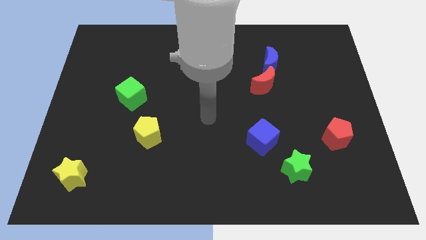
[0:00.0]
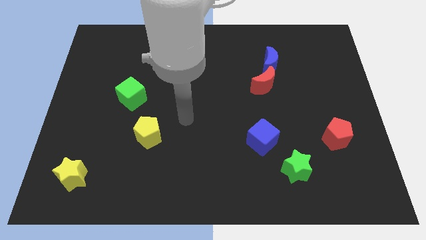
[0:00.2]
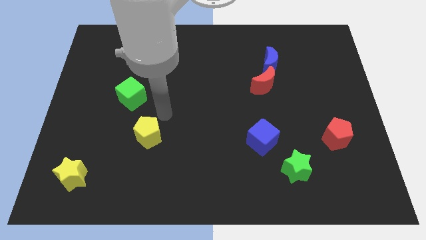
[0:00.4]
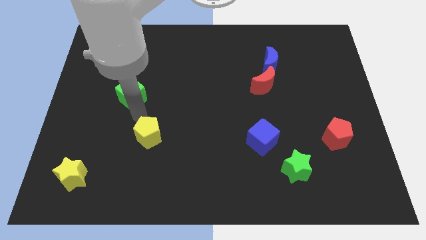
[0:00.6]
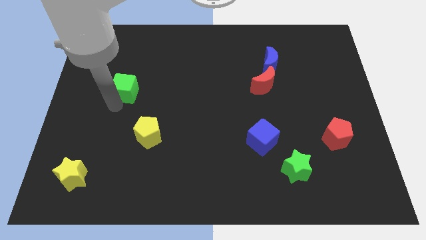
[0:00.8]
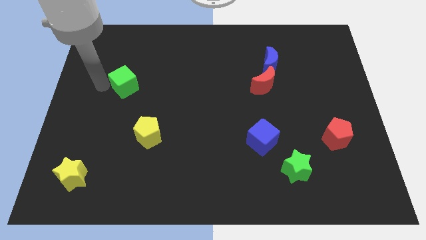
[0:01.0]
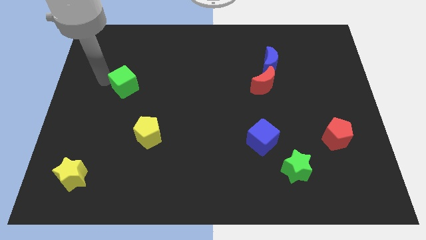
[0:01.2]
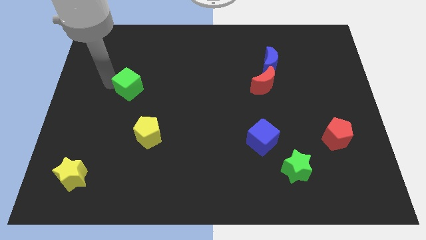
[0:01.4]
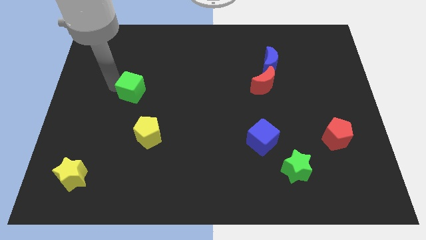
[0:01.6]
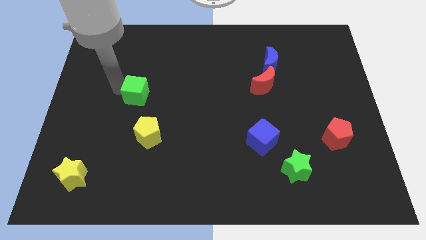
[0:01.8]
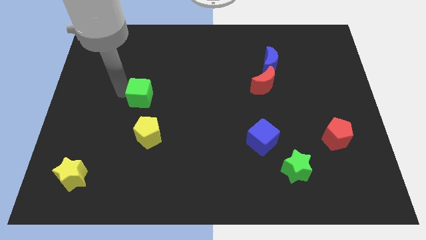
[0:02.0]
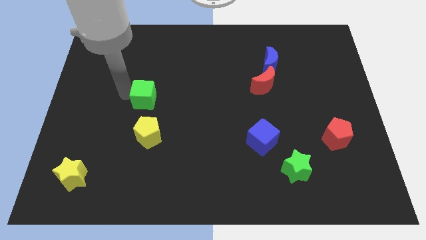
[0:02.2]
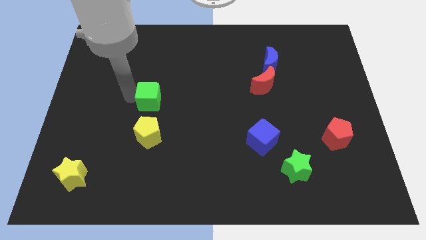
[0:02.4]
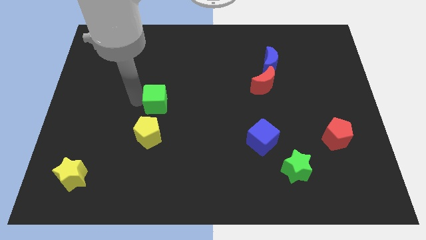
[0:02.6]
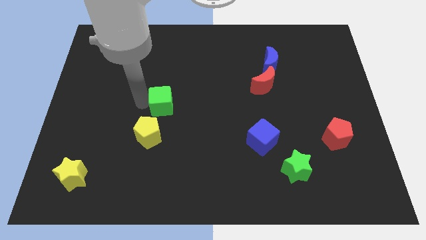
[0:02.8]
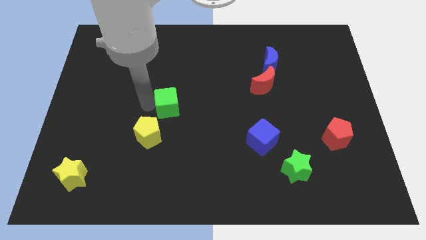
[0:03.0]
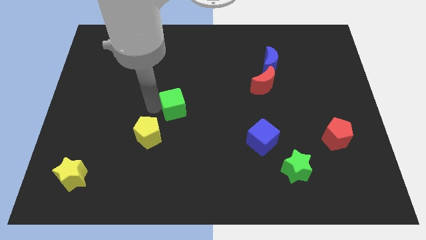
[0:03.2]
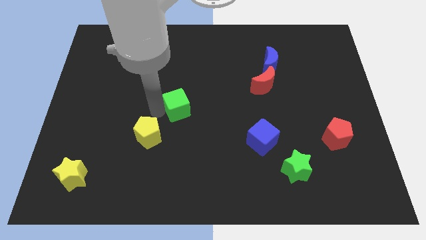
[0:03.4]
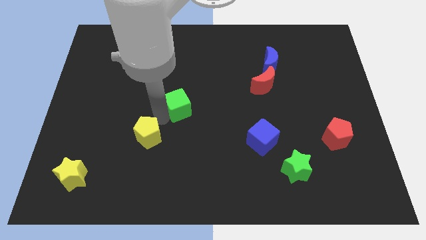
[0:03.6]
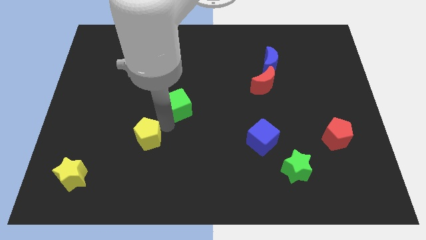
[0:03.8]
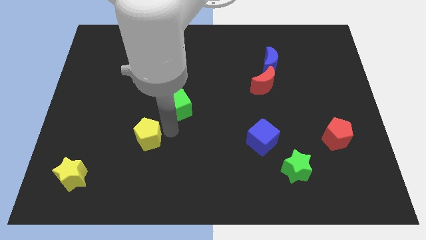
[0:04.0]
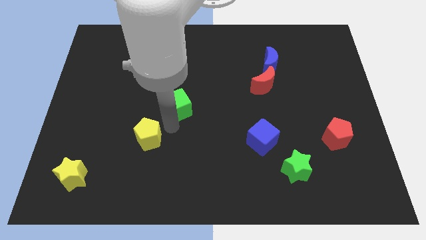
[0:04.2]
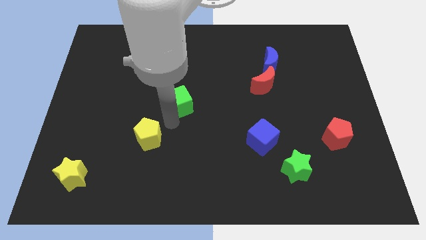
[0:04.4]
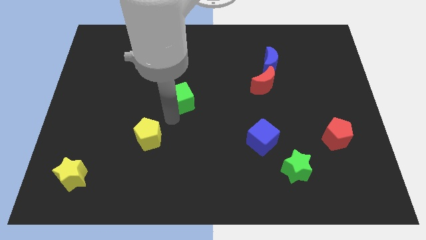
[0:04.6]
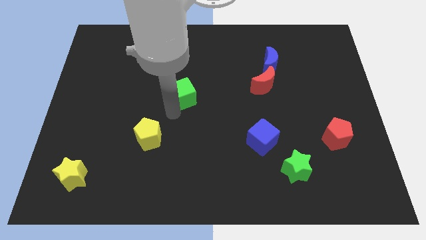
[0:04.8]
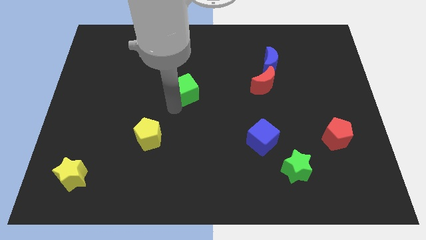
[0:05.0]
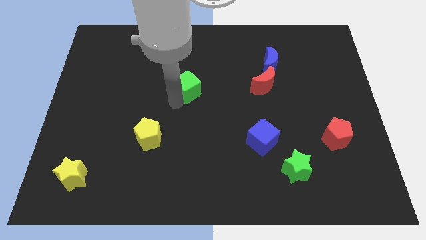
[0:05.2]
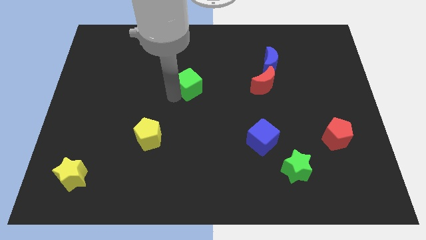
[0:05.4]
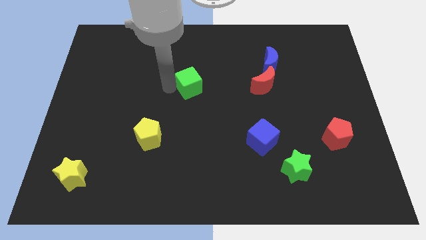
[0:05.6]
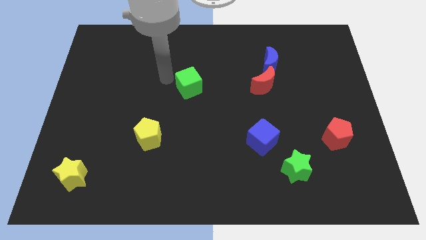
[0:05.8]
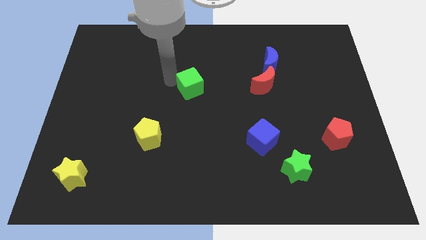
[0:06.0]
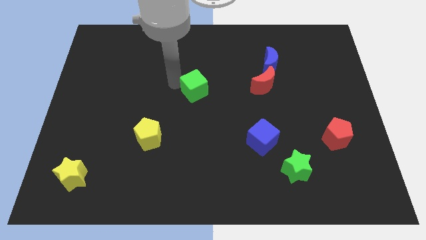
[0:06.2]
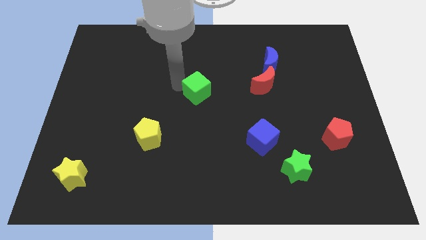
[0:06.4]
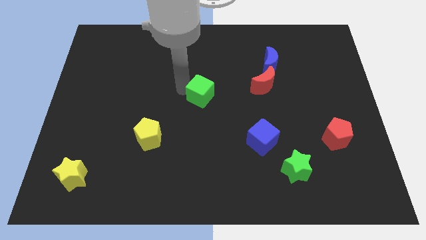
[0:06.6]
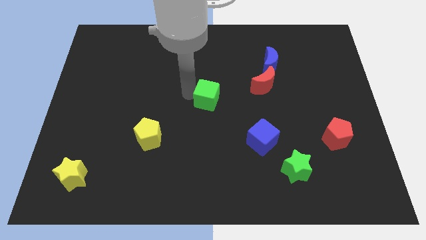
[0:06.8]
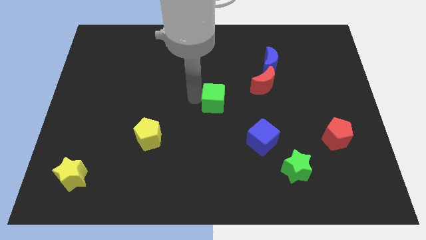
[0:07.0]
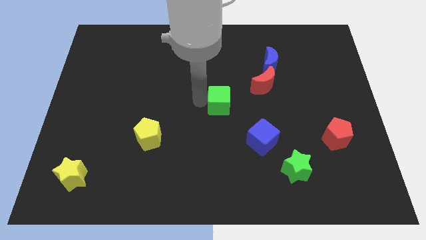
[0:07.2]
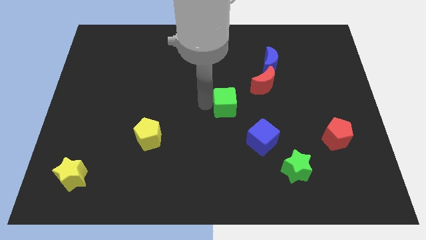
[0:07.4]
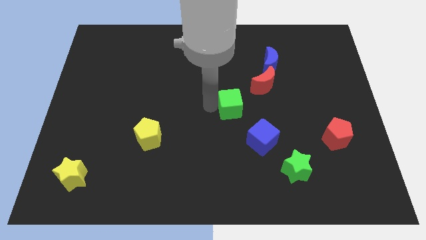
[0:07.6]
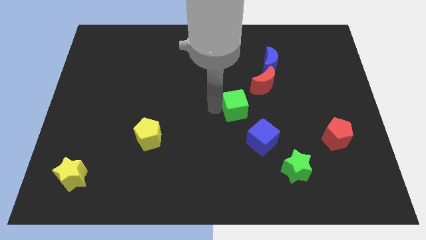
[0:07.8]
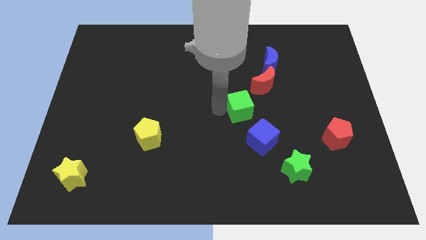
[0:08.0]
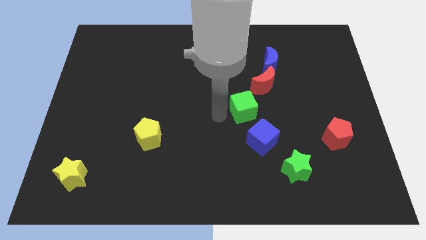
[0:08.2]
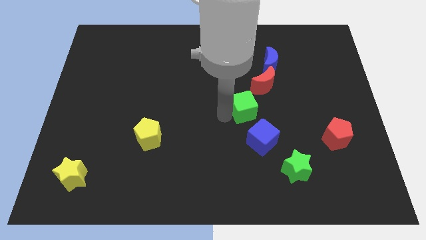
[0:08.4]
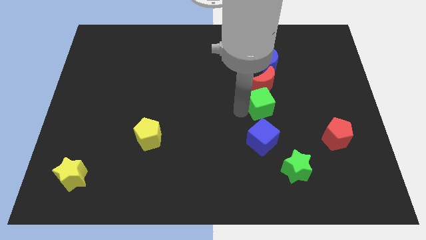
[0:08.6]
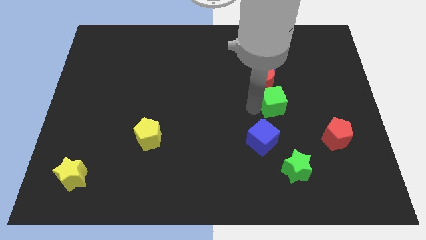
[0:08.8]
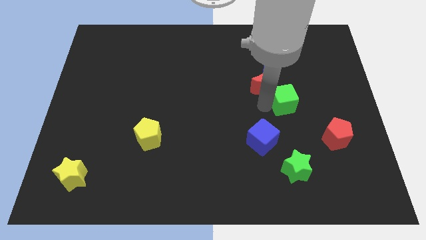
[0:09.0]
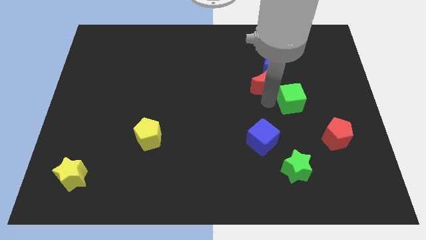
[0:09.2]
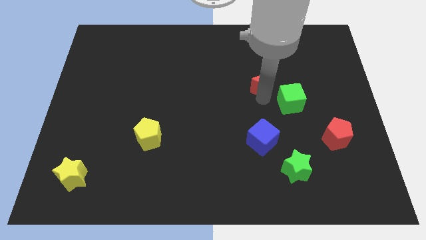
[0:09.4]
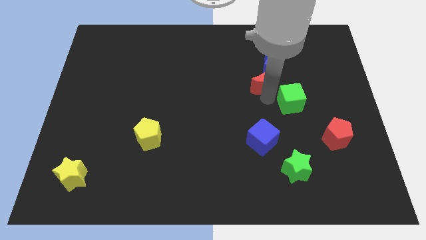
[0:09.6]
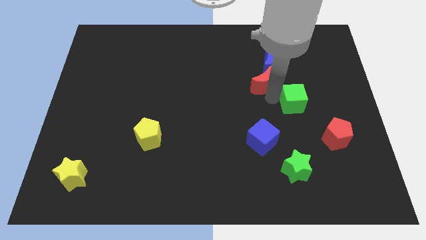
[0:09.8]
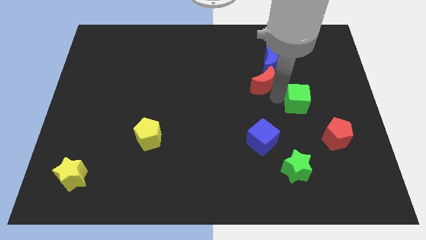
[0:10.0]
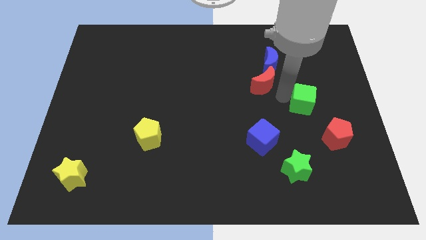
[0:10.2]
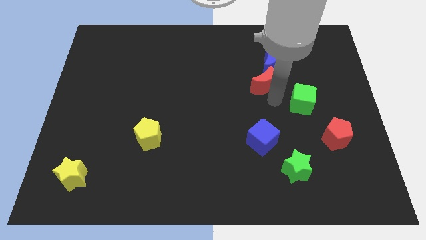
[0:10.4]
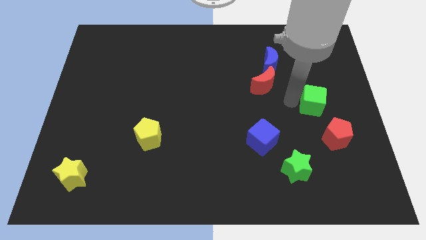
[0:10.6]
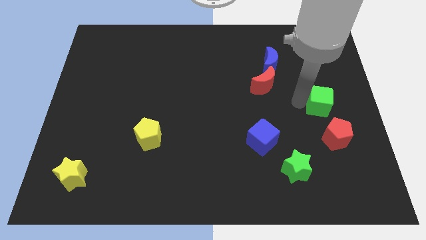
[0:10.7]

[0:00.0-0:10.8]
push the green cube to the right side

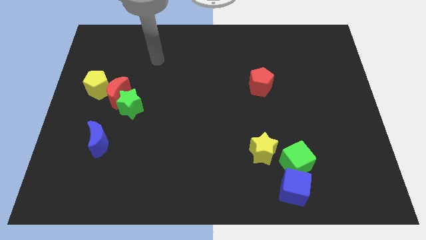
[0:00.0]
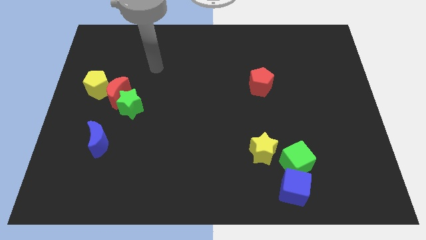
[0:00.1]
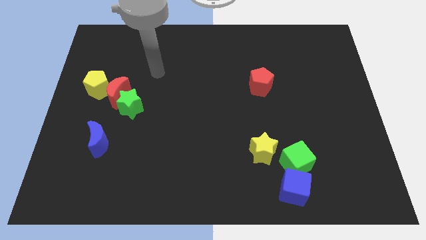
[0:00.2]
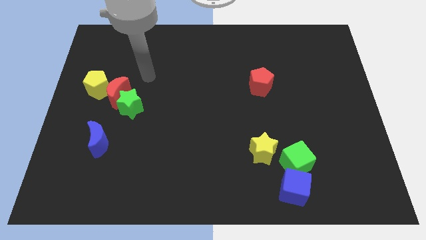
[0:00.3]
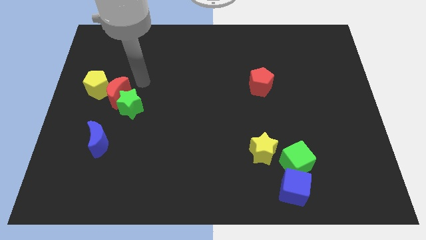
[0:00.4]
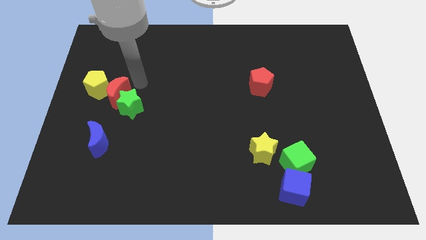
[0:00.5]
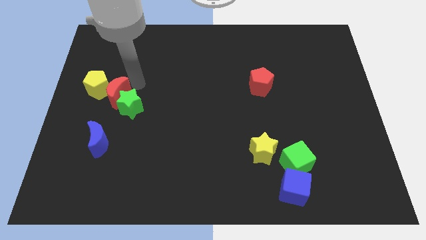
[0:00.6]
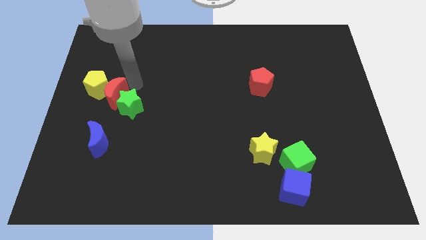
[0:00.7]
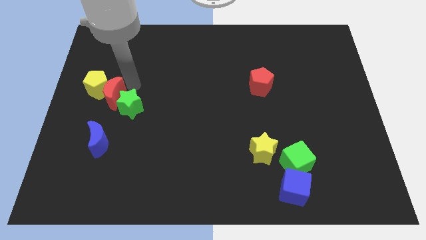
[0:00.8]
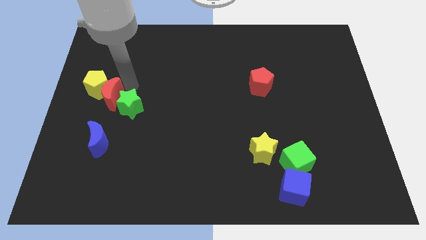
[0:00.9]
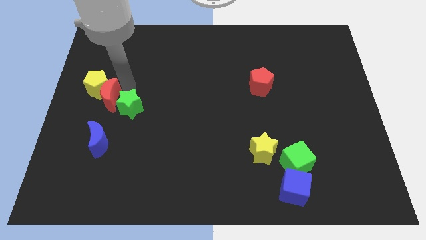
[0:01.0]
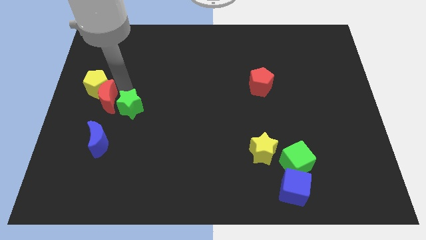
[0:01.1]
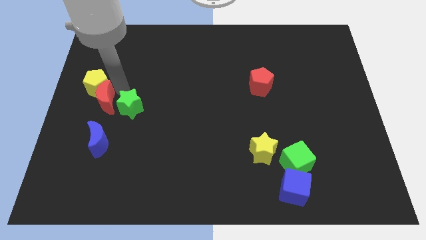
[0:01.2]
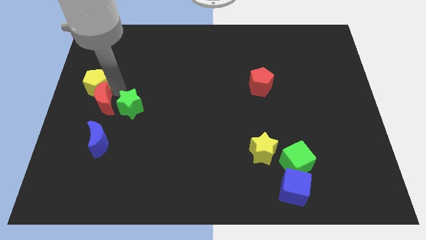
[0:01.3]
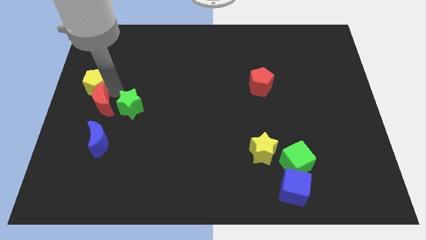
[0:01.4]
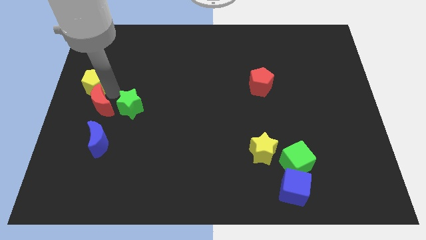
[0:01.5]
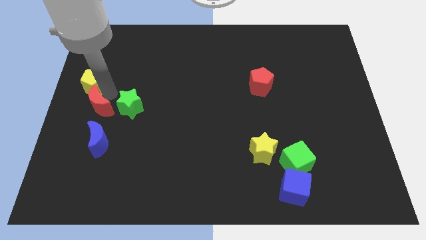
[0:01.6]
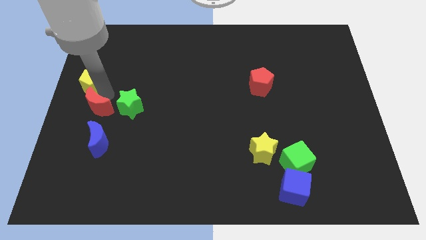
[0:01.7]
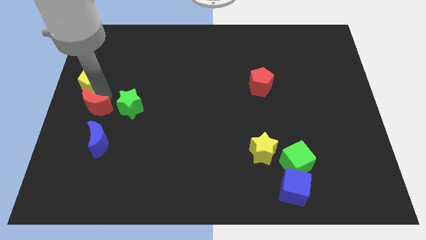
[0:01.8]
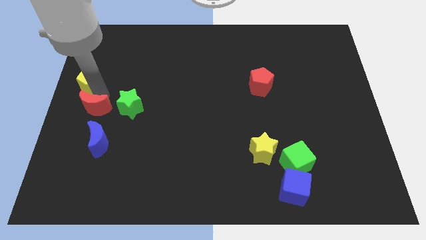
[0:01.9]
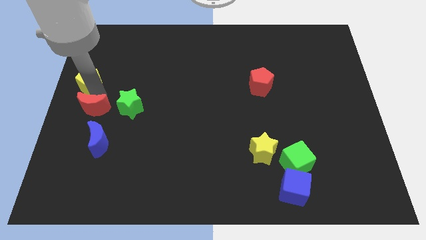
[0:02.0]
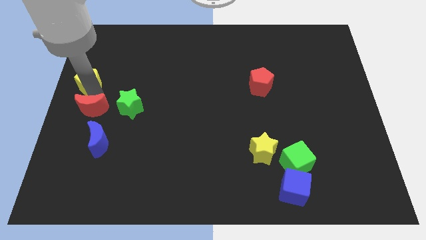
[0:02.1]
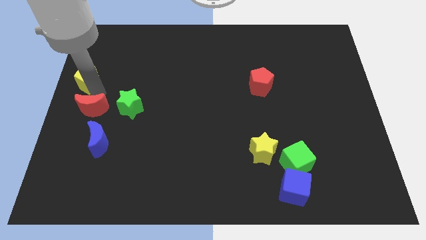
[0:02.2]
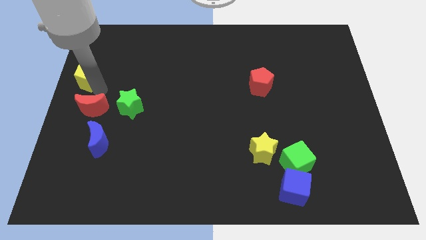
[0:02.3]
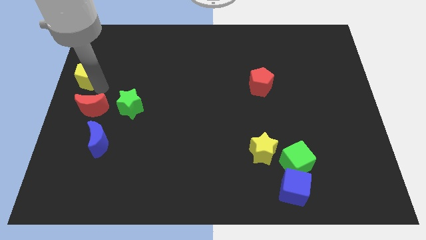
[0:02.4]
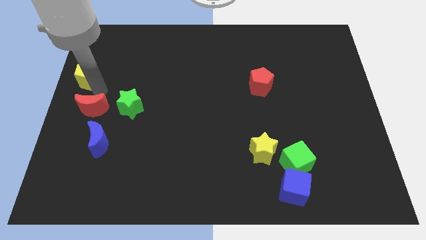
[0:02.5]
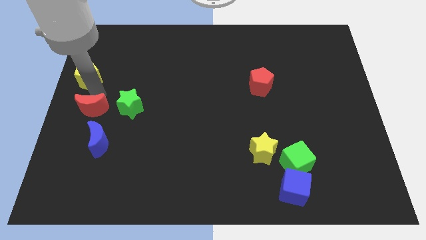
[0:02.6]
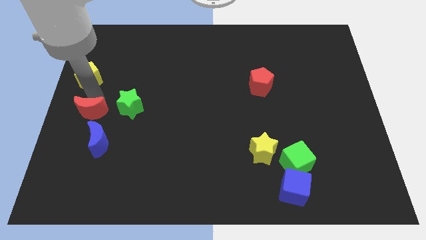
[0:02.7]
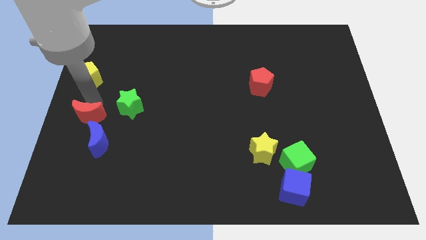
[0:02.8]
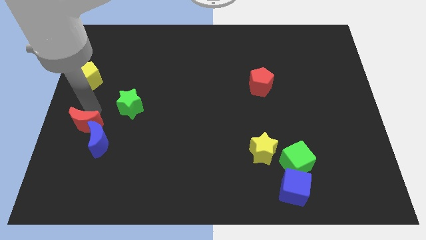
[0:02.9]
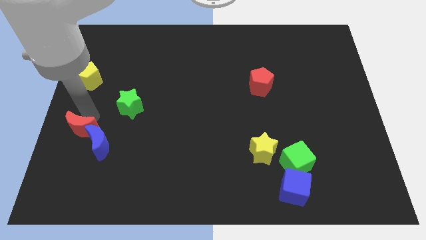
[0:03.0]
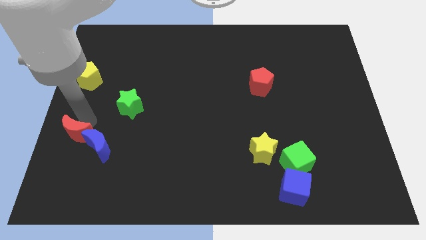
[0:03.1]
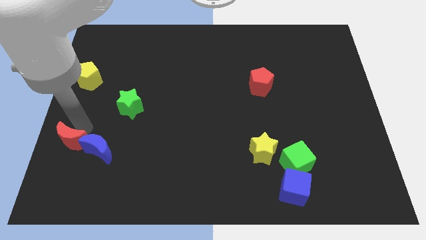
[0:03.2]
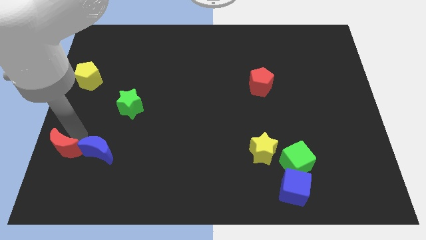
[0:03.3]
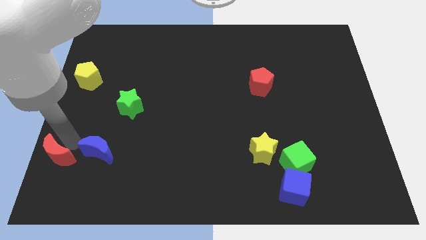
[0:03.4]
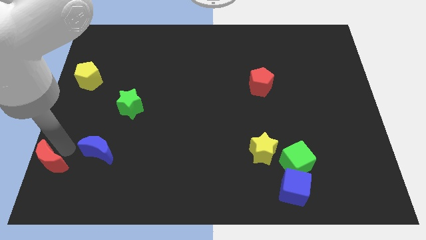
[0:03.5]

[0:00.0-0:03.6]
slide the red moon to the bottom left corner
